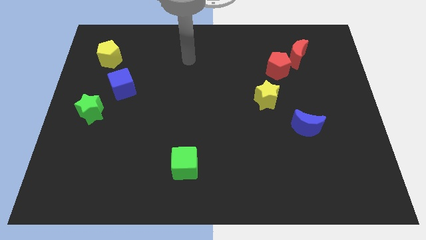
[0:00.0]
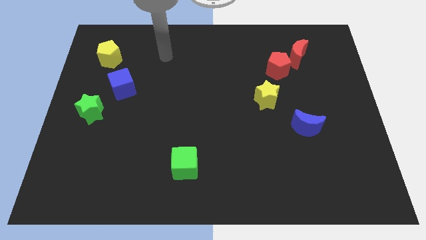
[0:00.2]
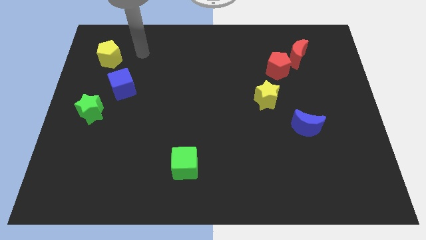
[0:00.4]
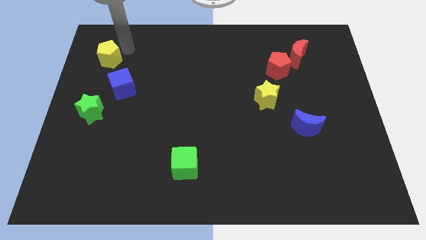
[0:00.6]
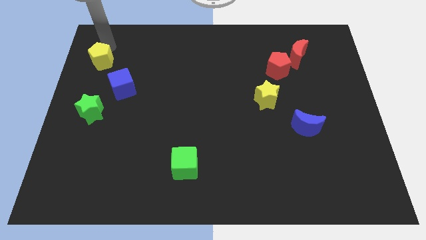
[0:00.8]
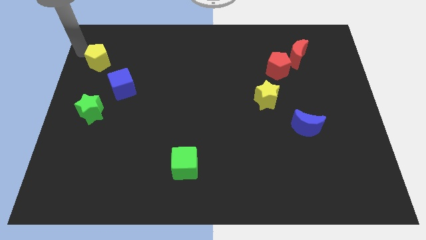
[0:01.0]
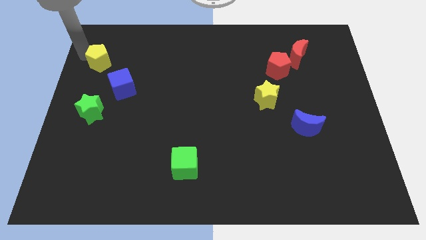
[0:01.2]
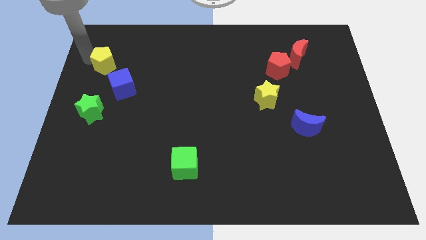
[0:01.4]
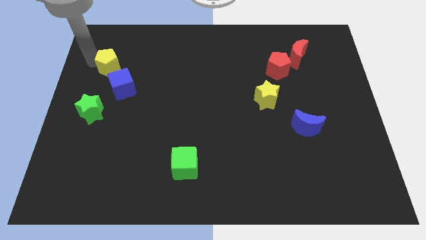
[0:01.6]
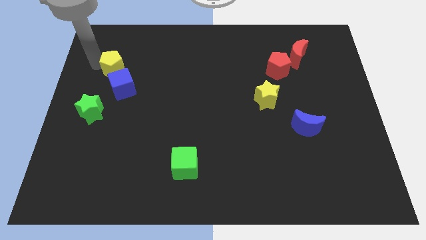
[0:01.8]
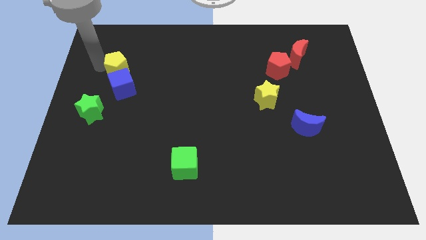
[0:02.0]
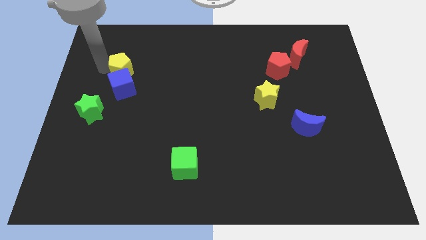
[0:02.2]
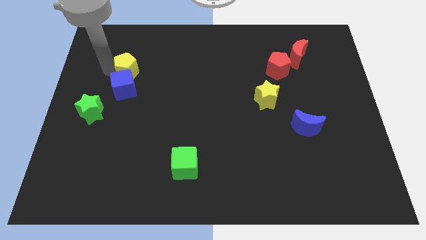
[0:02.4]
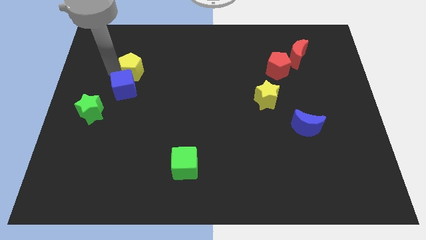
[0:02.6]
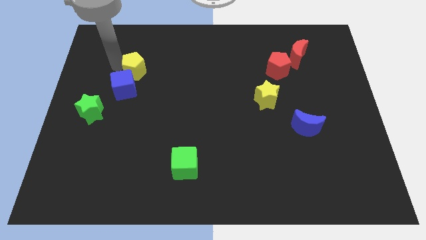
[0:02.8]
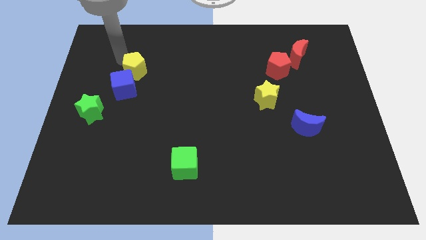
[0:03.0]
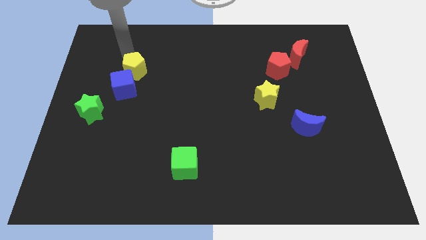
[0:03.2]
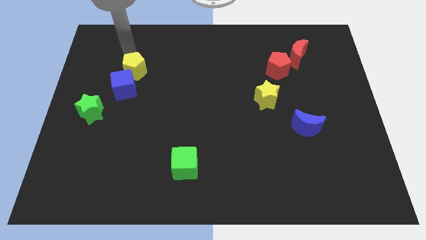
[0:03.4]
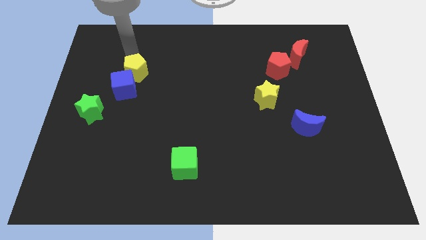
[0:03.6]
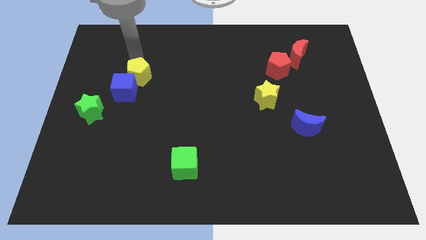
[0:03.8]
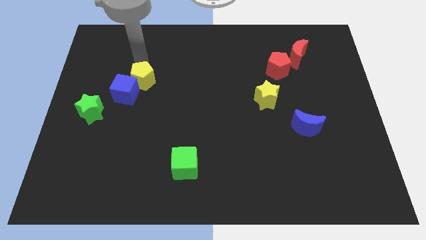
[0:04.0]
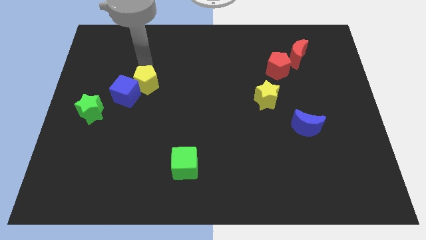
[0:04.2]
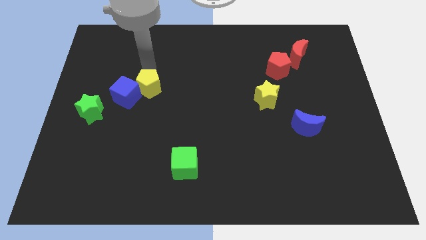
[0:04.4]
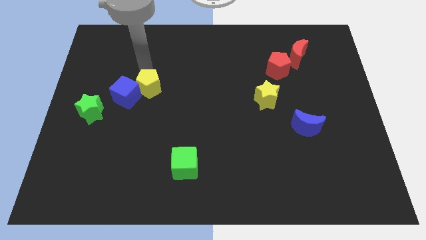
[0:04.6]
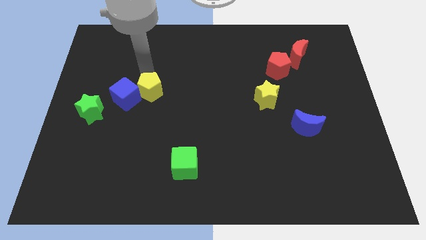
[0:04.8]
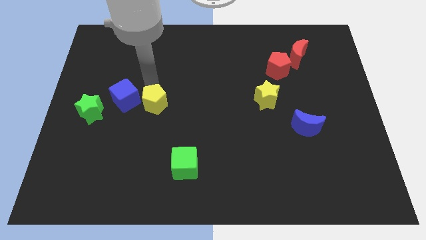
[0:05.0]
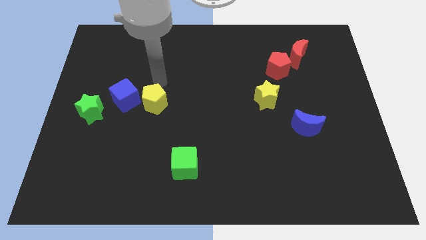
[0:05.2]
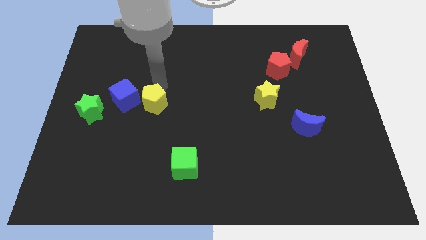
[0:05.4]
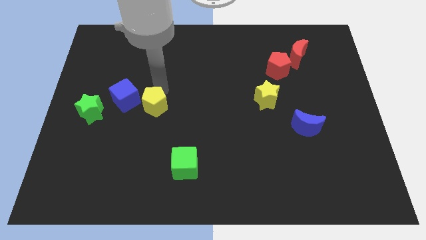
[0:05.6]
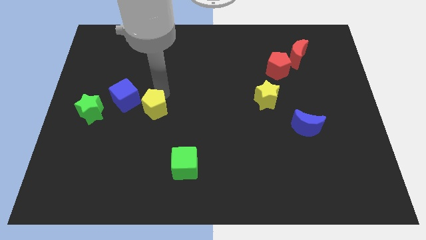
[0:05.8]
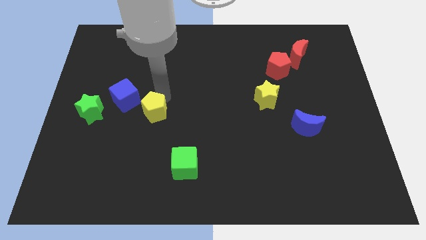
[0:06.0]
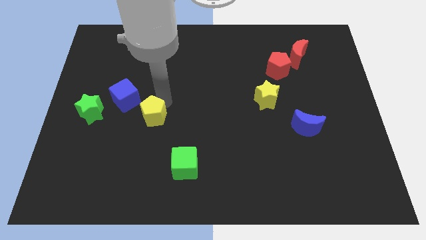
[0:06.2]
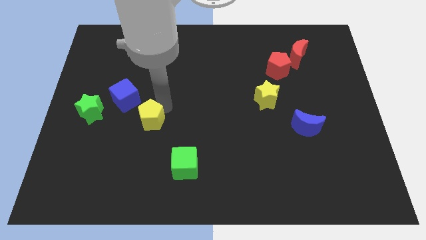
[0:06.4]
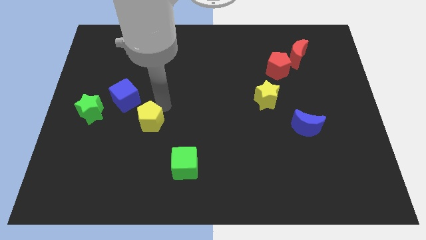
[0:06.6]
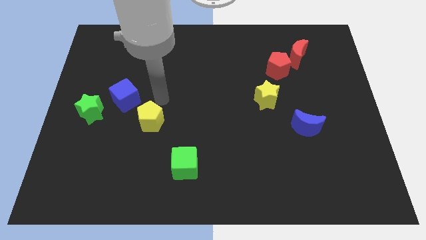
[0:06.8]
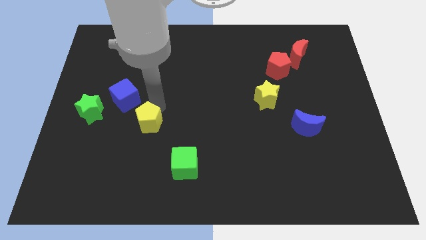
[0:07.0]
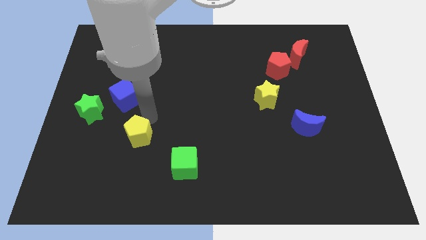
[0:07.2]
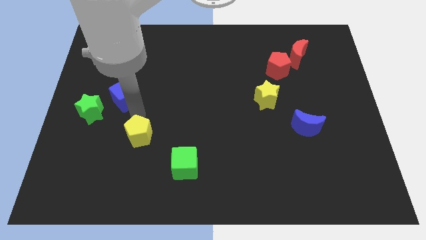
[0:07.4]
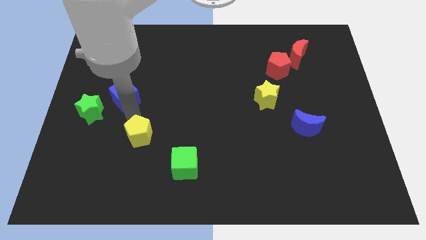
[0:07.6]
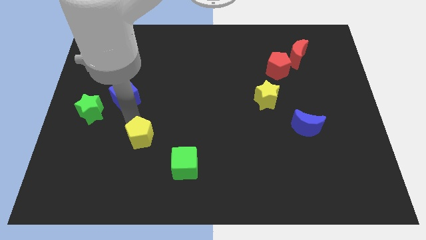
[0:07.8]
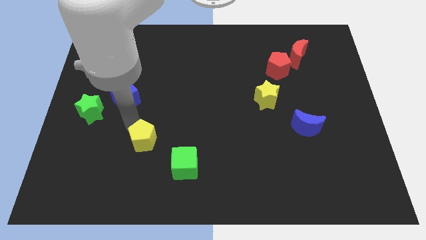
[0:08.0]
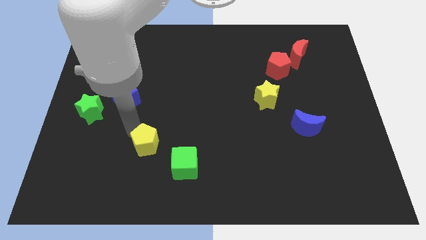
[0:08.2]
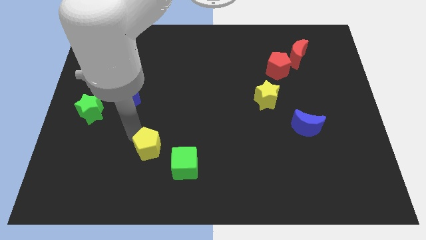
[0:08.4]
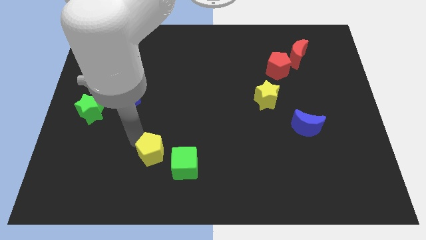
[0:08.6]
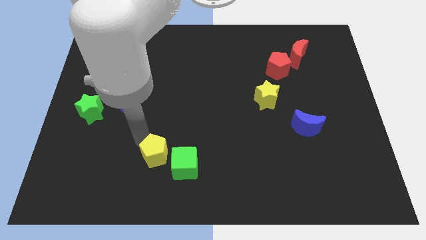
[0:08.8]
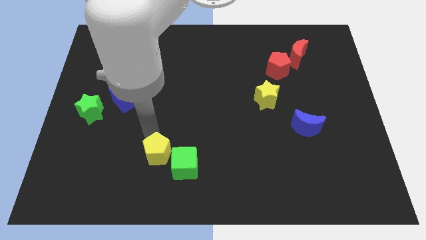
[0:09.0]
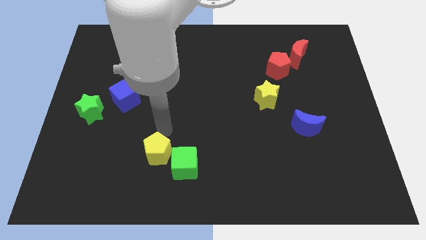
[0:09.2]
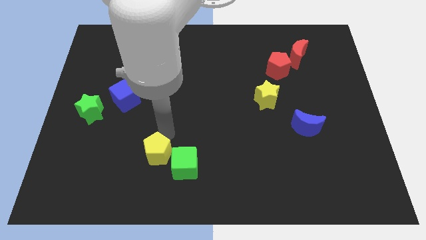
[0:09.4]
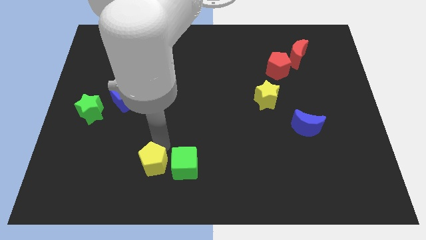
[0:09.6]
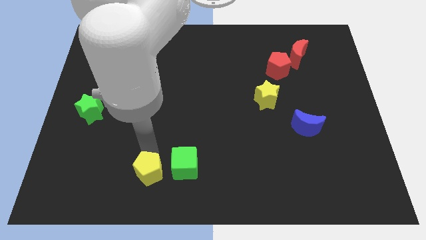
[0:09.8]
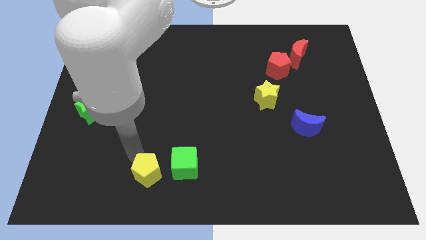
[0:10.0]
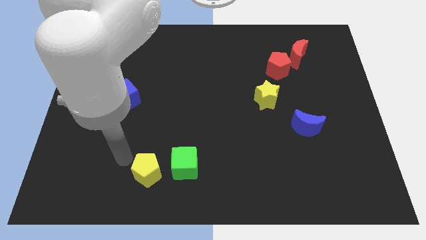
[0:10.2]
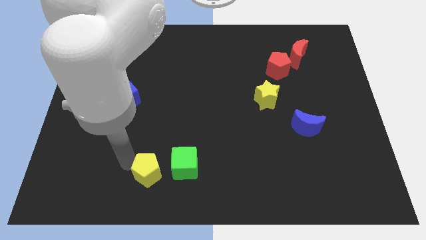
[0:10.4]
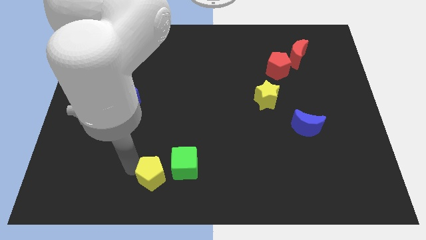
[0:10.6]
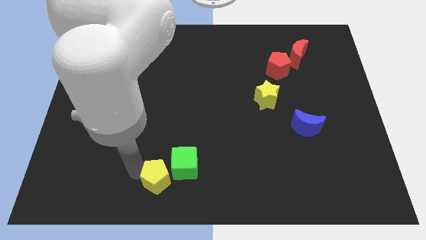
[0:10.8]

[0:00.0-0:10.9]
move the yellow pentagon to the bottom

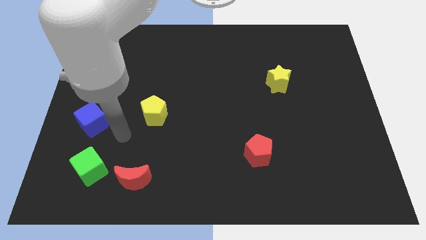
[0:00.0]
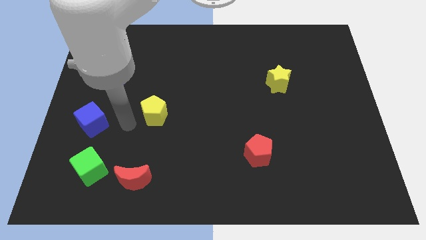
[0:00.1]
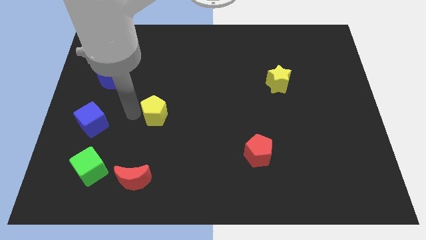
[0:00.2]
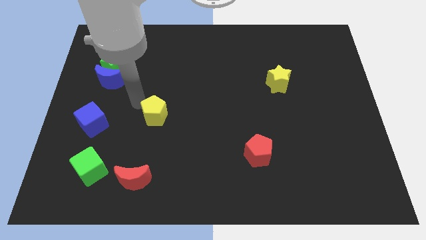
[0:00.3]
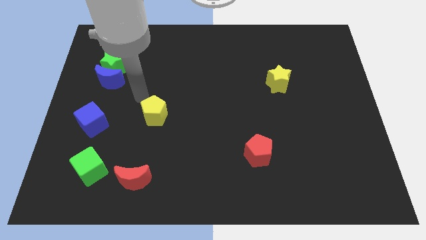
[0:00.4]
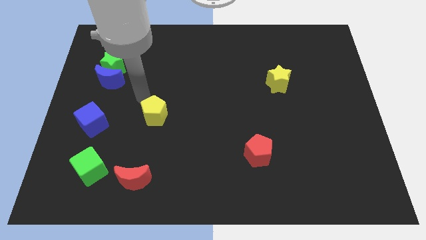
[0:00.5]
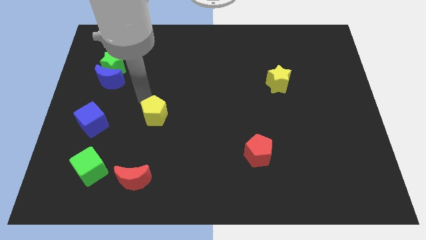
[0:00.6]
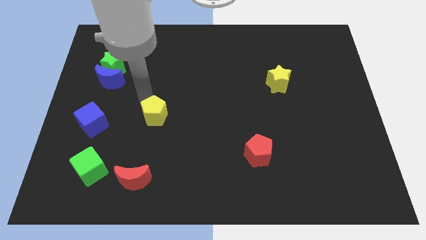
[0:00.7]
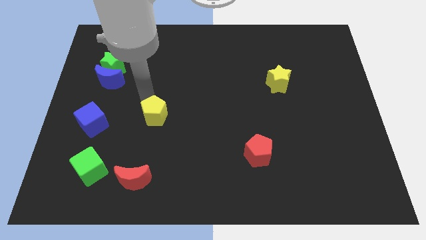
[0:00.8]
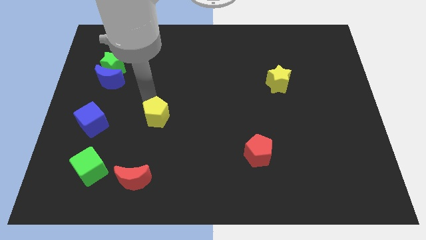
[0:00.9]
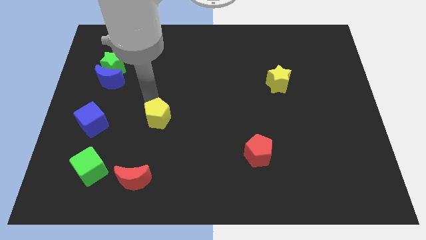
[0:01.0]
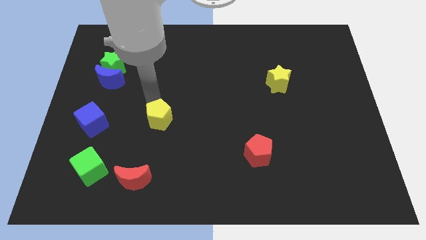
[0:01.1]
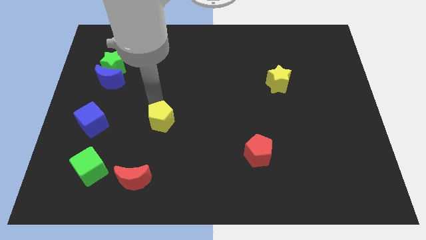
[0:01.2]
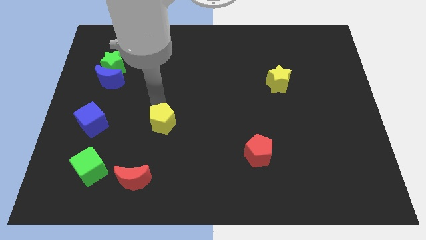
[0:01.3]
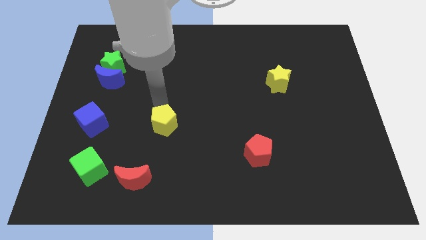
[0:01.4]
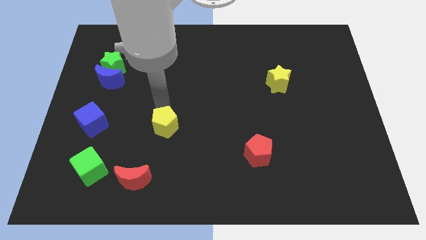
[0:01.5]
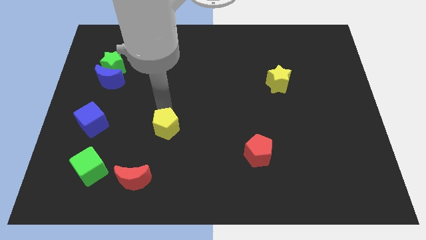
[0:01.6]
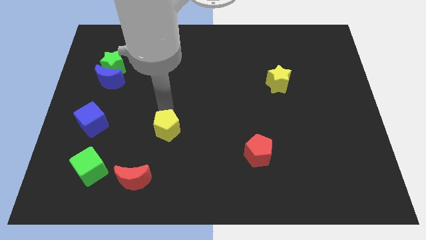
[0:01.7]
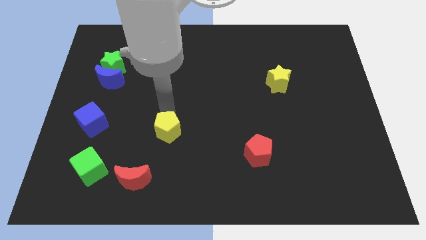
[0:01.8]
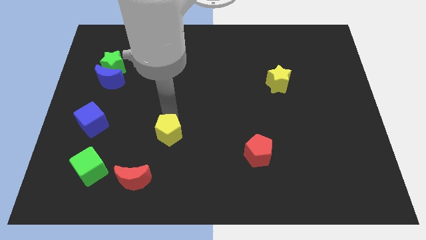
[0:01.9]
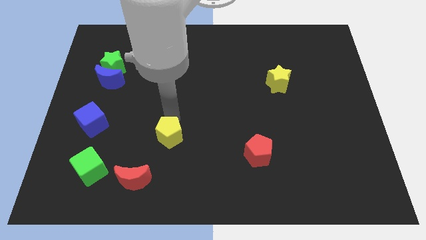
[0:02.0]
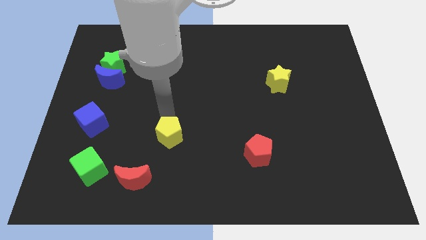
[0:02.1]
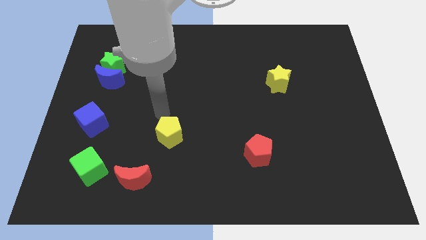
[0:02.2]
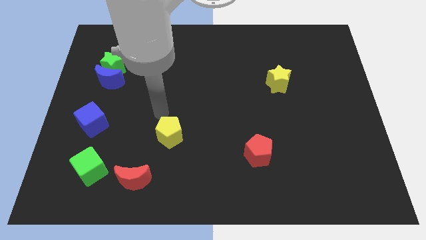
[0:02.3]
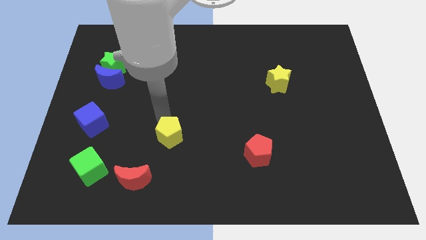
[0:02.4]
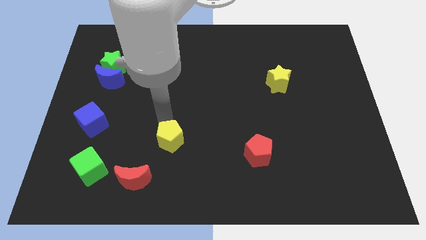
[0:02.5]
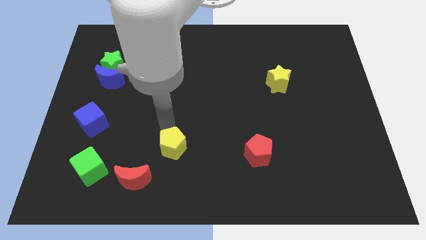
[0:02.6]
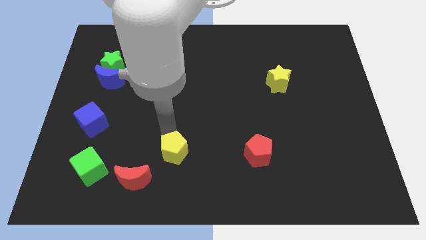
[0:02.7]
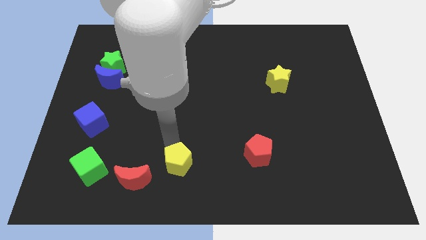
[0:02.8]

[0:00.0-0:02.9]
put the yellow pentagon to the bottom side
